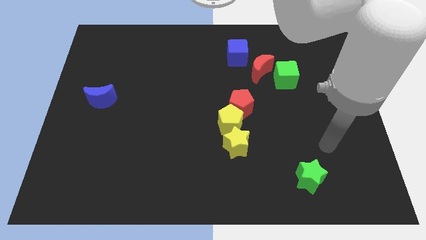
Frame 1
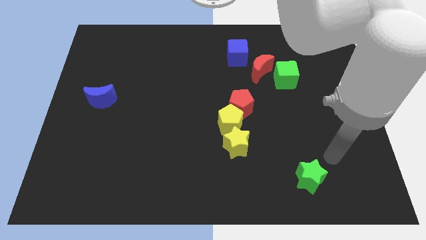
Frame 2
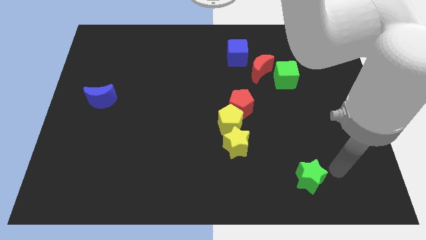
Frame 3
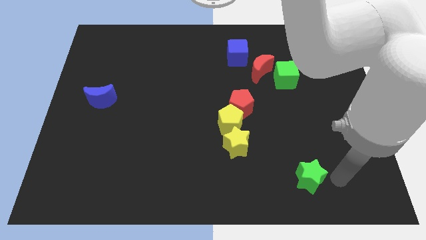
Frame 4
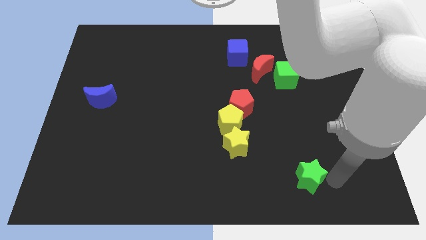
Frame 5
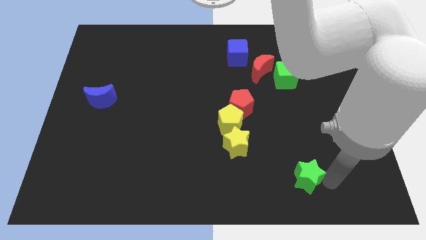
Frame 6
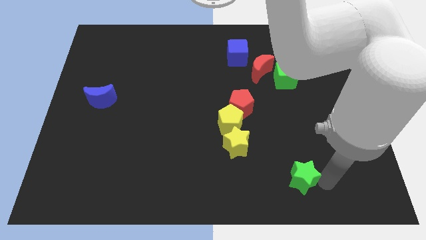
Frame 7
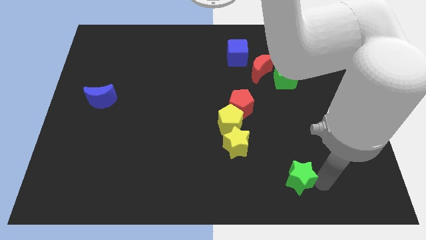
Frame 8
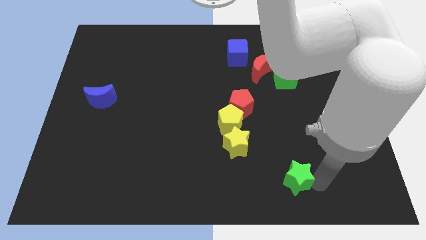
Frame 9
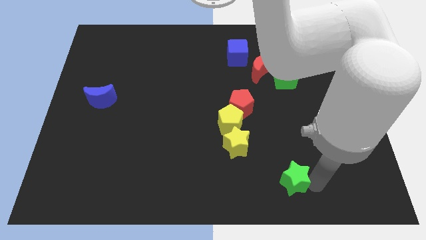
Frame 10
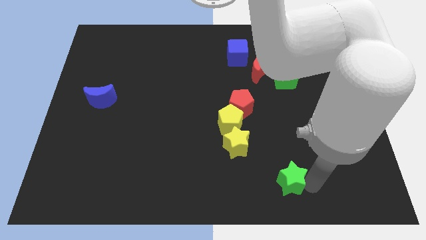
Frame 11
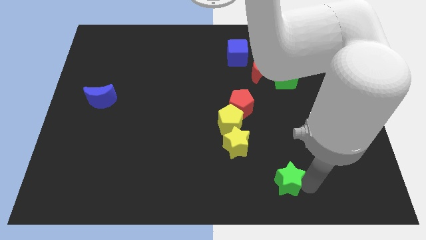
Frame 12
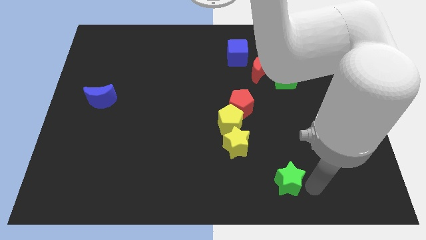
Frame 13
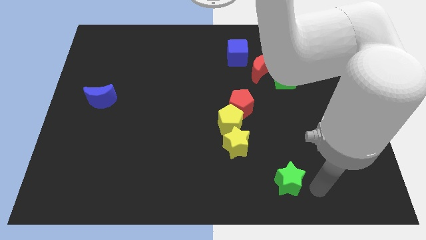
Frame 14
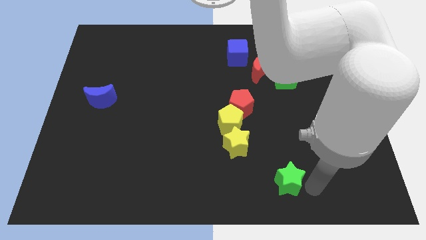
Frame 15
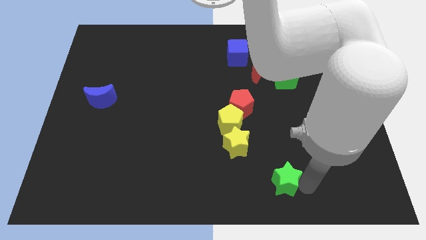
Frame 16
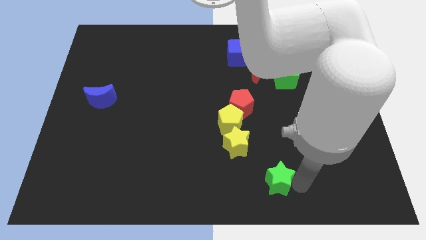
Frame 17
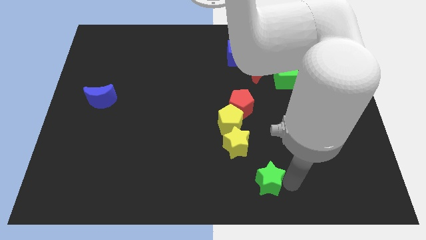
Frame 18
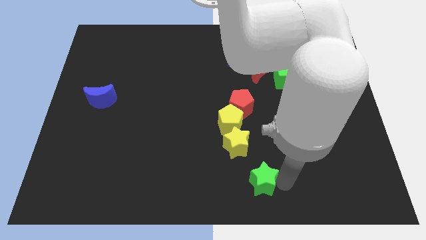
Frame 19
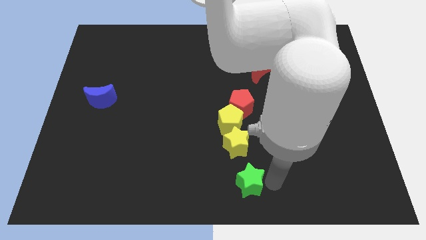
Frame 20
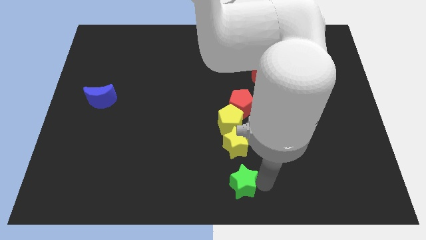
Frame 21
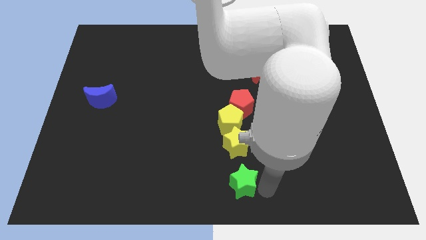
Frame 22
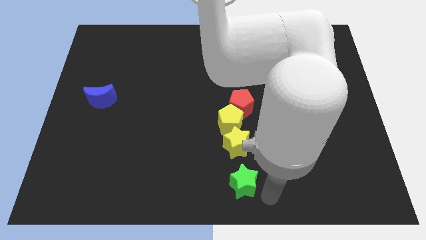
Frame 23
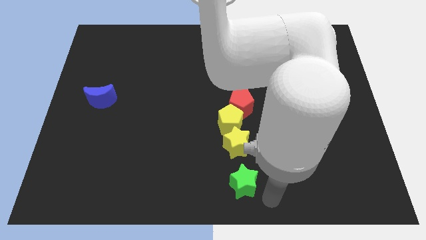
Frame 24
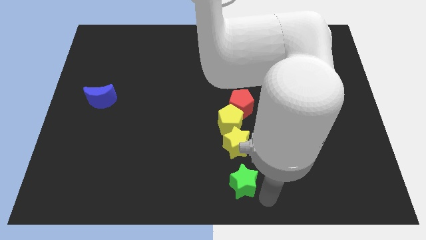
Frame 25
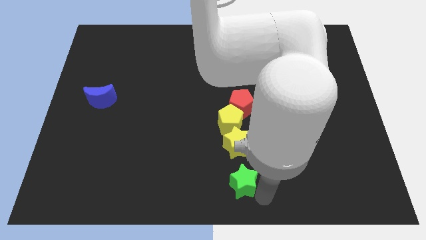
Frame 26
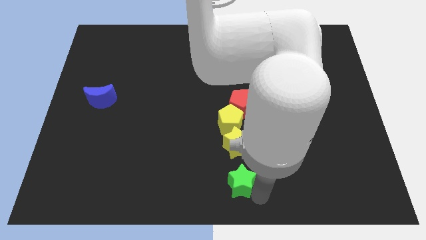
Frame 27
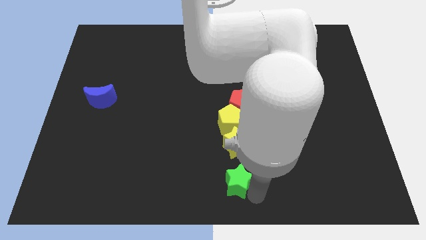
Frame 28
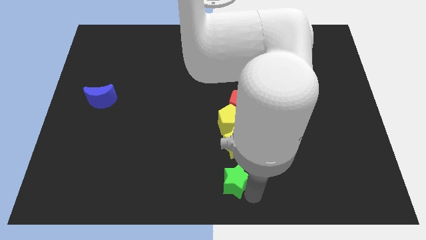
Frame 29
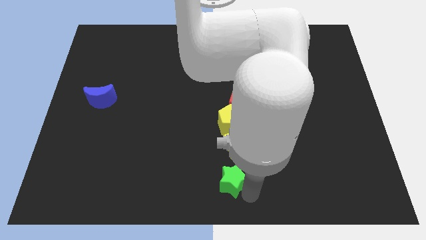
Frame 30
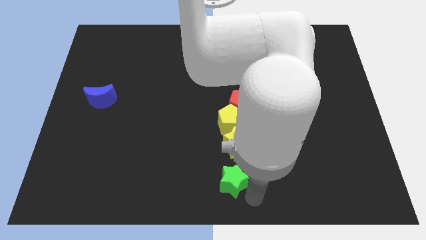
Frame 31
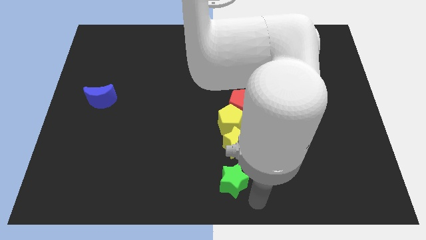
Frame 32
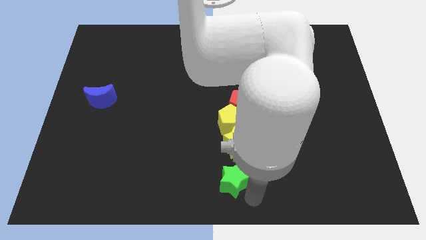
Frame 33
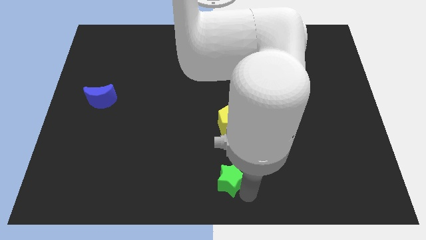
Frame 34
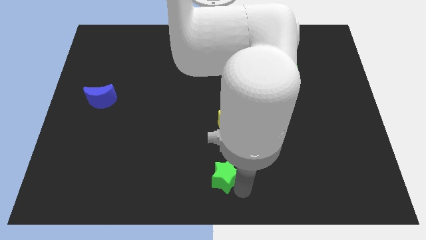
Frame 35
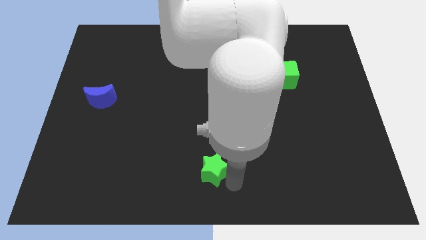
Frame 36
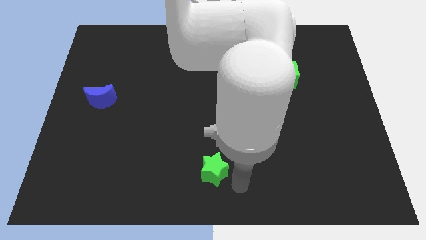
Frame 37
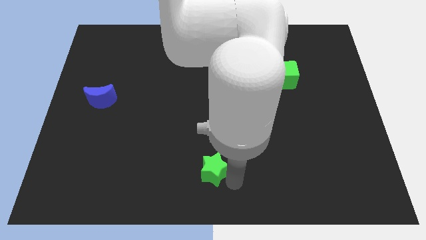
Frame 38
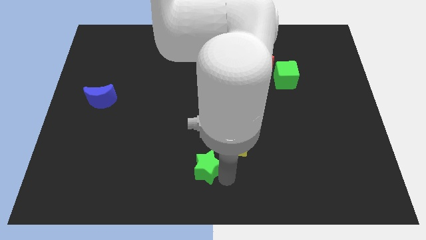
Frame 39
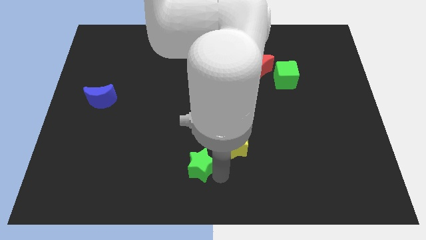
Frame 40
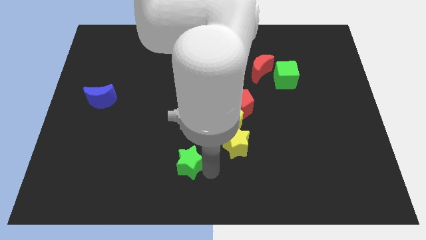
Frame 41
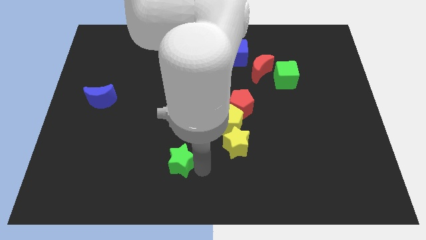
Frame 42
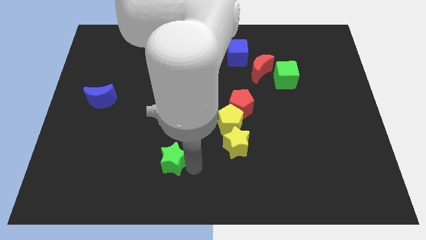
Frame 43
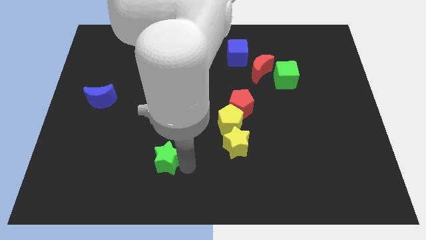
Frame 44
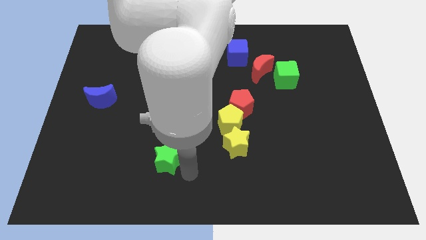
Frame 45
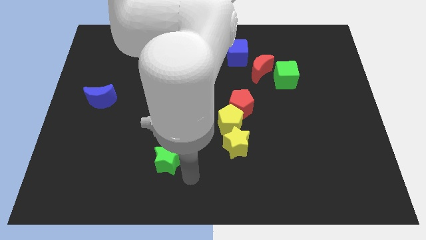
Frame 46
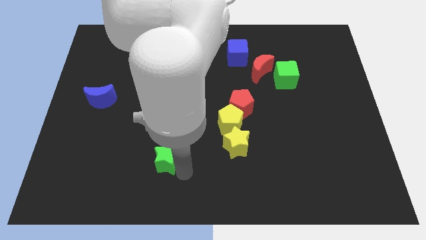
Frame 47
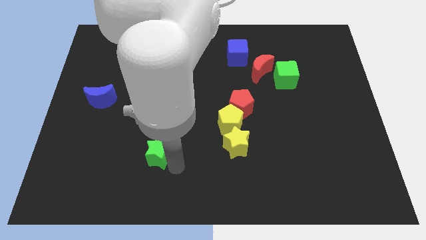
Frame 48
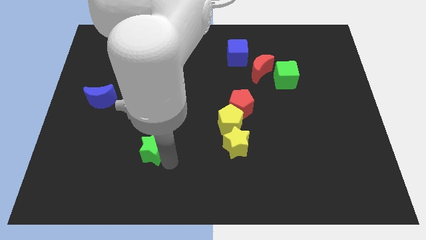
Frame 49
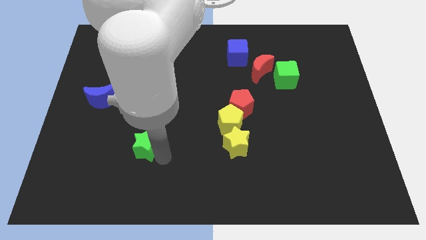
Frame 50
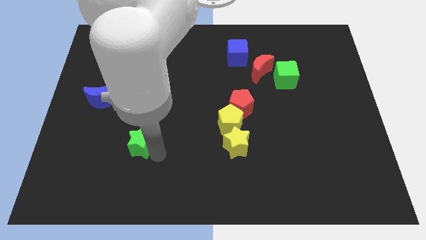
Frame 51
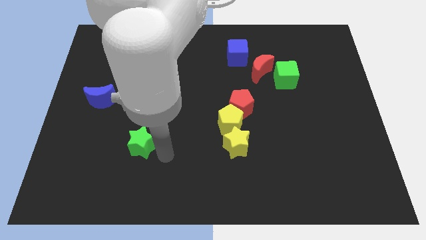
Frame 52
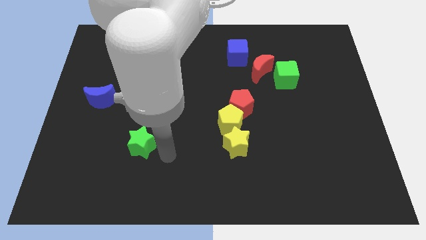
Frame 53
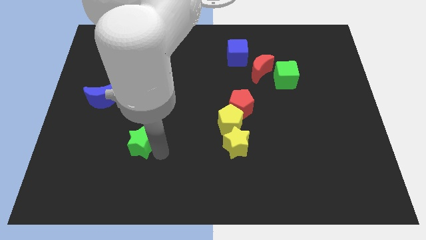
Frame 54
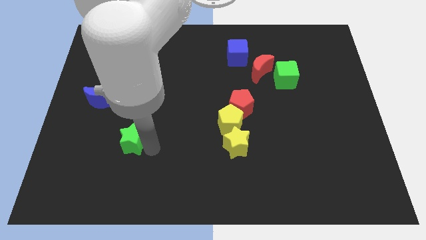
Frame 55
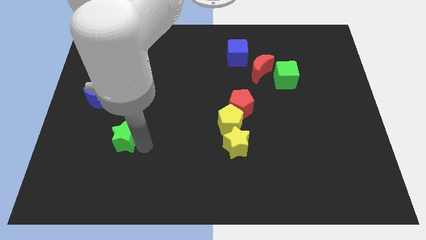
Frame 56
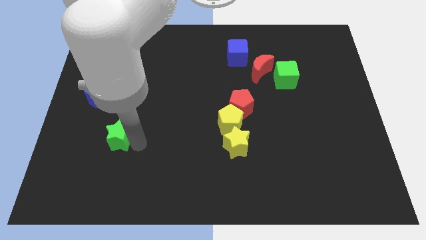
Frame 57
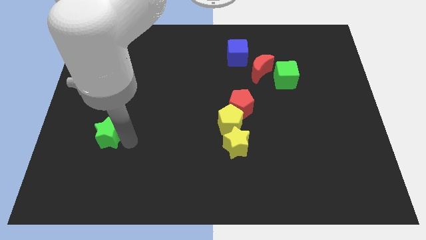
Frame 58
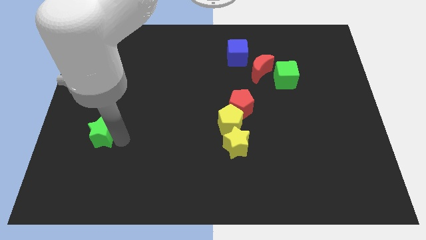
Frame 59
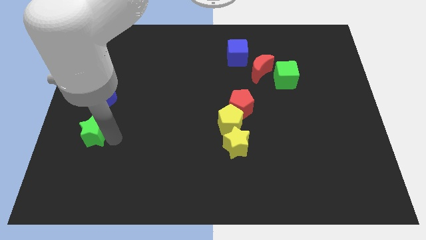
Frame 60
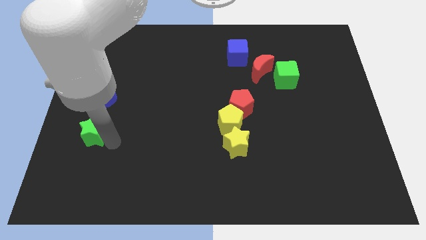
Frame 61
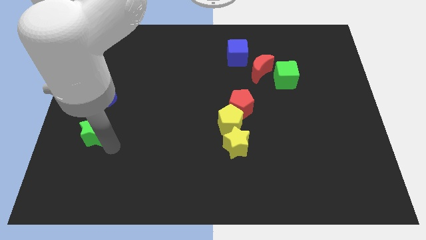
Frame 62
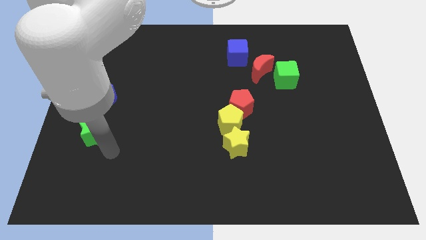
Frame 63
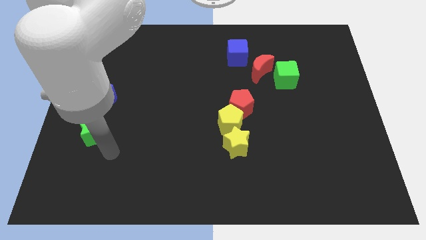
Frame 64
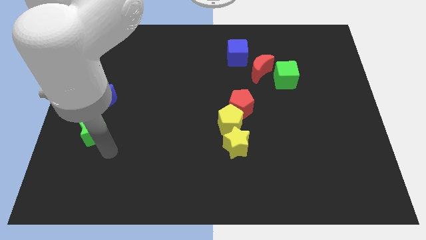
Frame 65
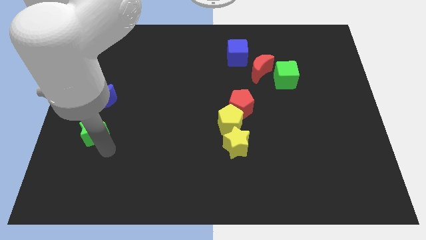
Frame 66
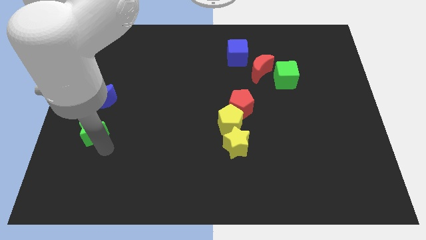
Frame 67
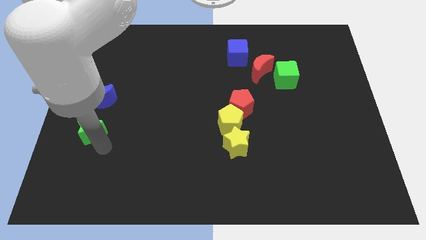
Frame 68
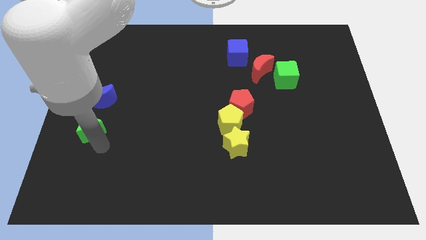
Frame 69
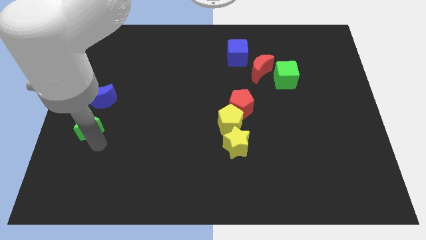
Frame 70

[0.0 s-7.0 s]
slide the green star to the center left
